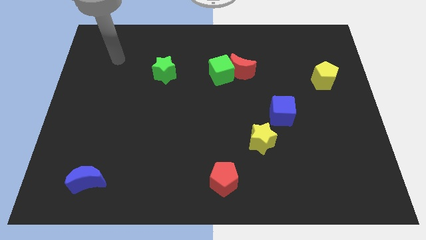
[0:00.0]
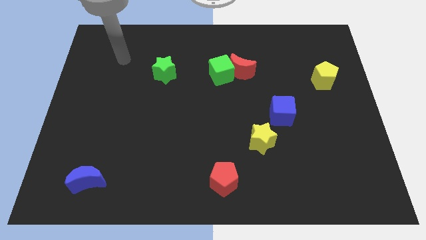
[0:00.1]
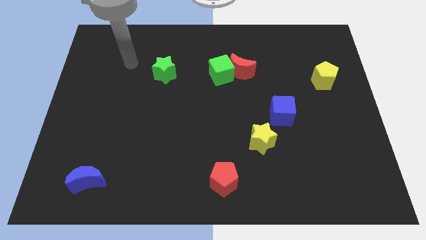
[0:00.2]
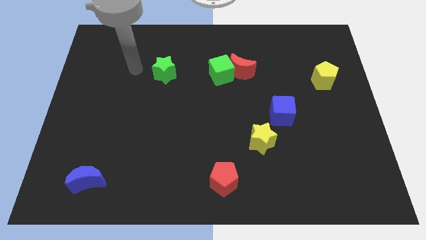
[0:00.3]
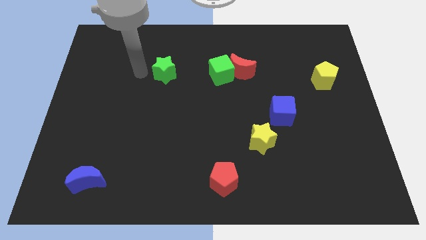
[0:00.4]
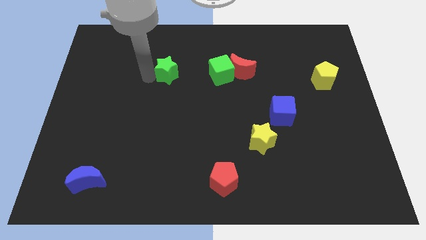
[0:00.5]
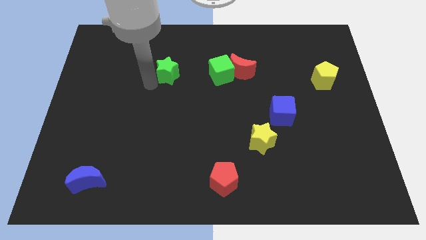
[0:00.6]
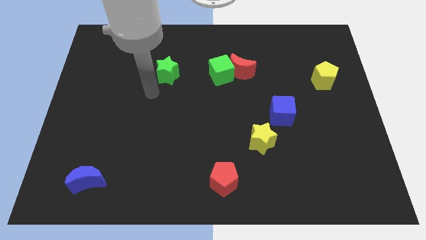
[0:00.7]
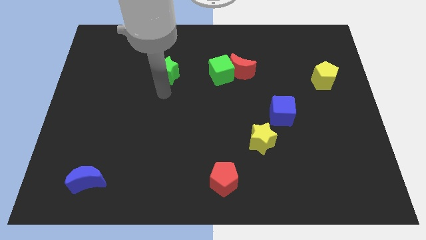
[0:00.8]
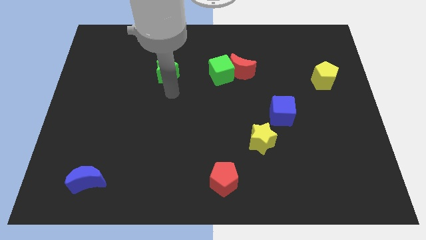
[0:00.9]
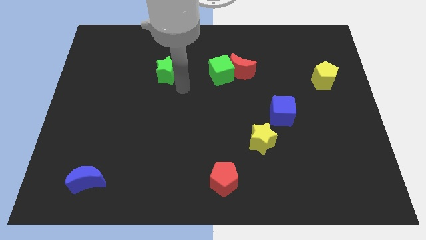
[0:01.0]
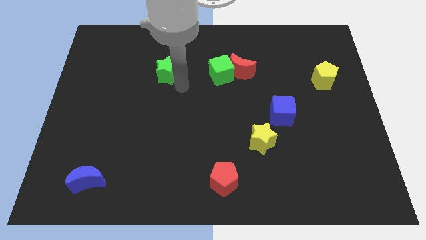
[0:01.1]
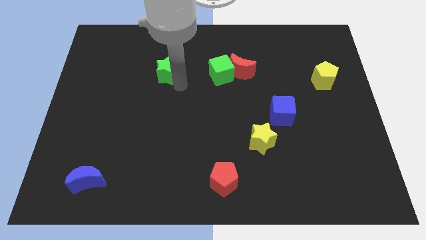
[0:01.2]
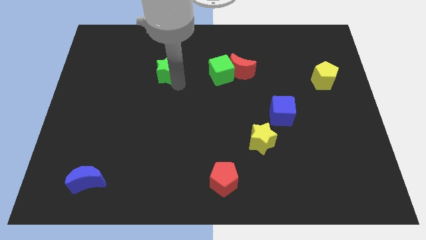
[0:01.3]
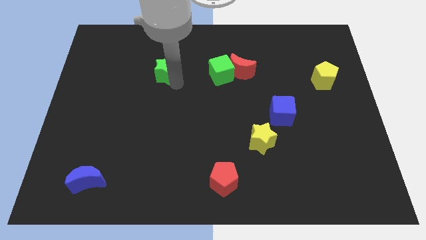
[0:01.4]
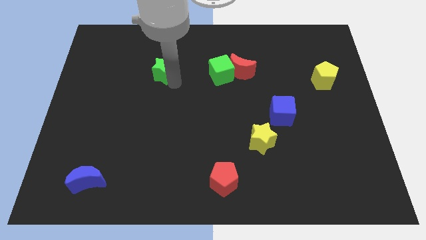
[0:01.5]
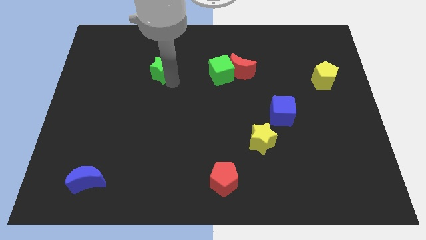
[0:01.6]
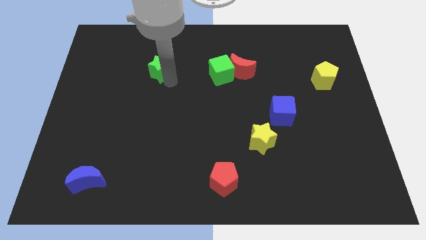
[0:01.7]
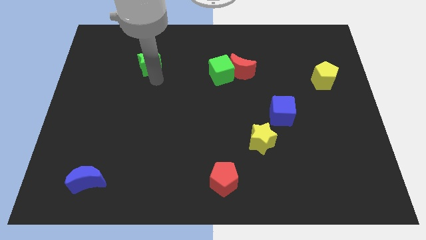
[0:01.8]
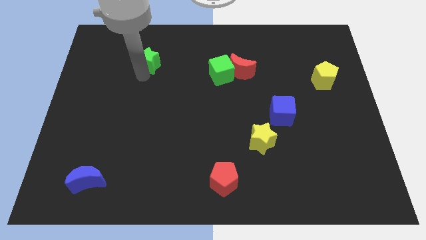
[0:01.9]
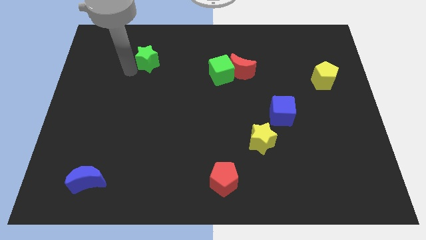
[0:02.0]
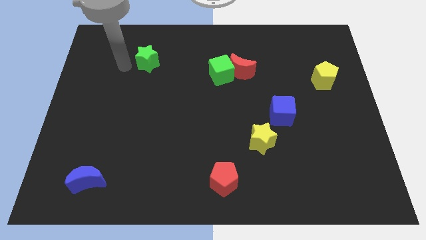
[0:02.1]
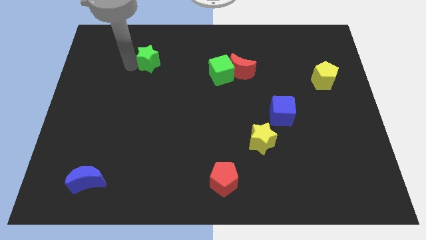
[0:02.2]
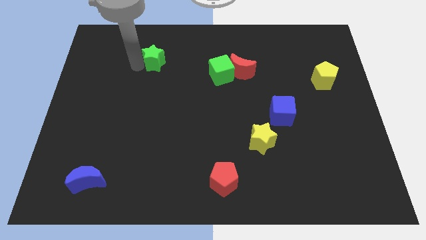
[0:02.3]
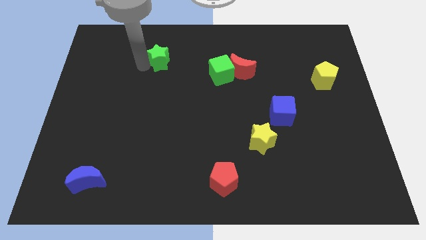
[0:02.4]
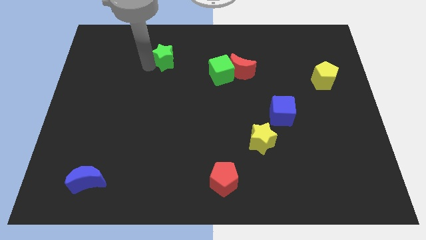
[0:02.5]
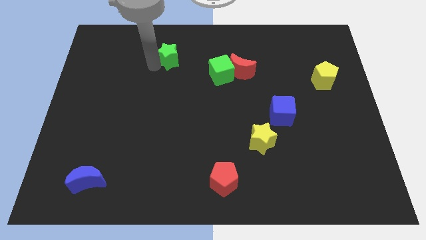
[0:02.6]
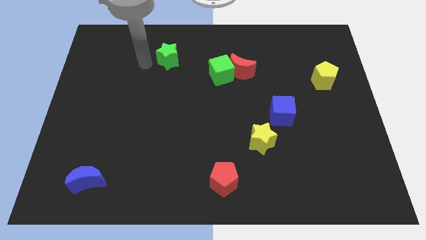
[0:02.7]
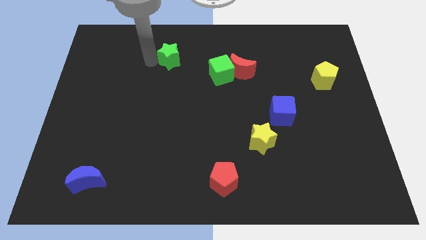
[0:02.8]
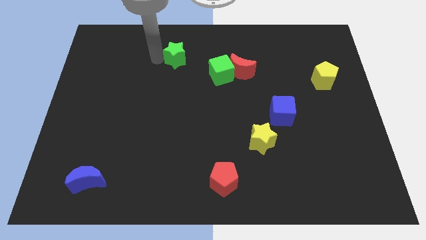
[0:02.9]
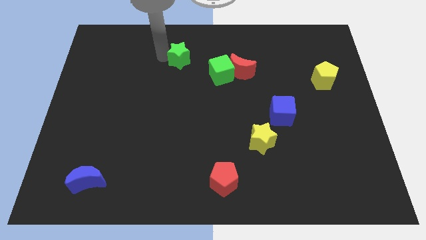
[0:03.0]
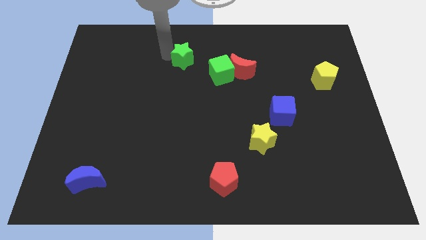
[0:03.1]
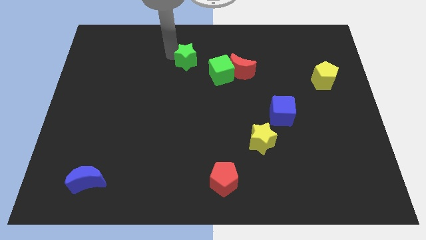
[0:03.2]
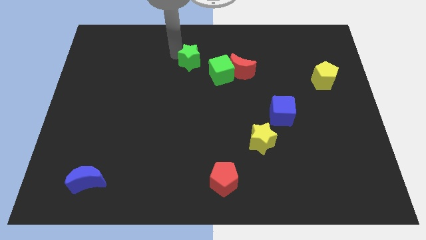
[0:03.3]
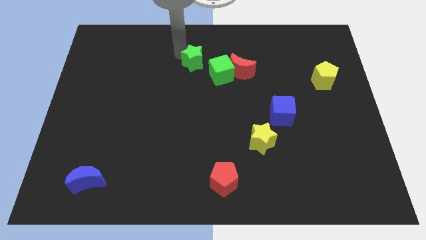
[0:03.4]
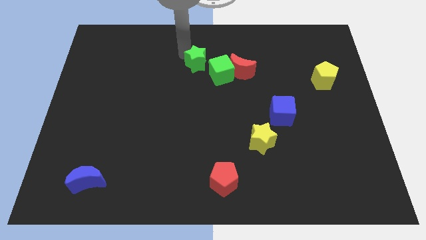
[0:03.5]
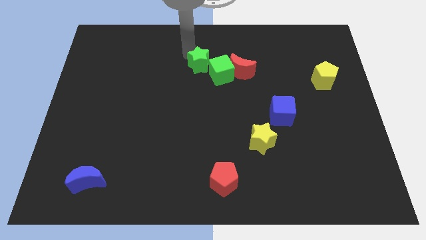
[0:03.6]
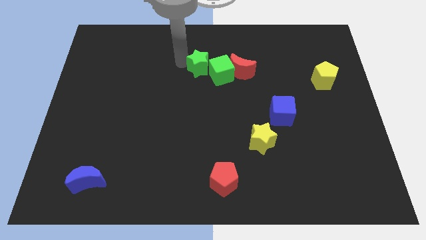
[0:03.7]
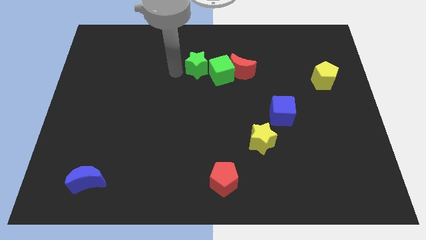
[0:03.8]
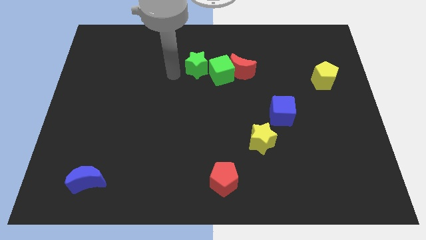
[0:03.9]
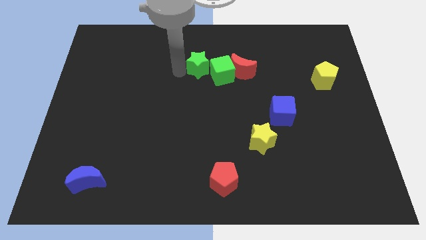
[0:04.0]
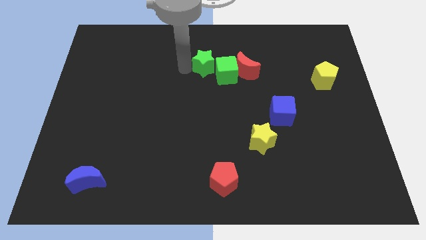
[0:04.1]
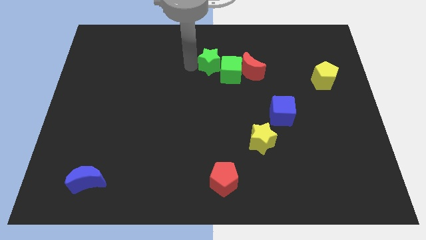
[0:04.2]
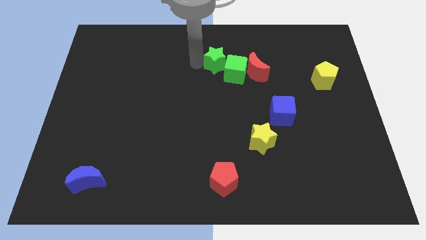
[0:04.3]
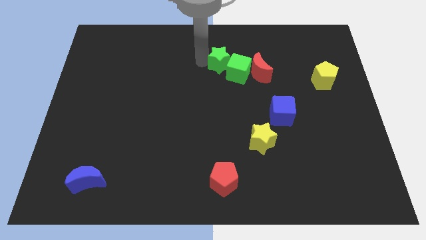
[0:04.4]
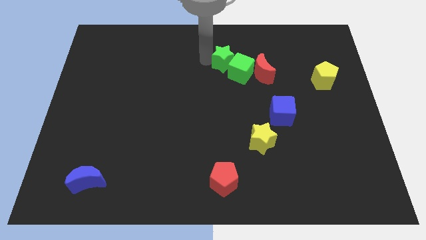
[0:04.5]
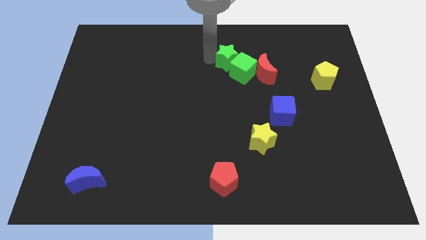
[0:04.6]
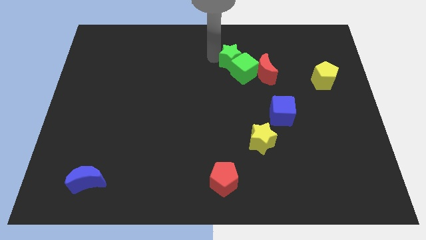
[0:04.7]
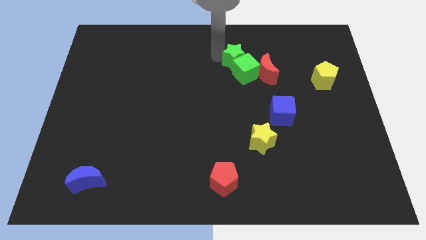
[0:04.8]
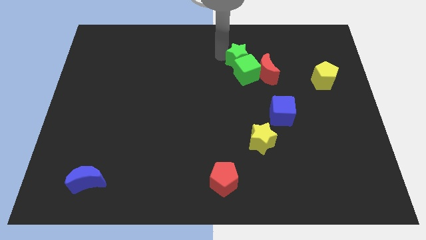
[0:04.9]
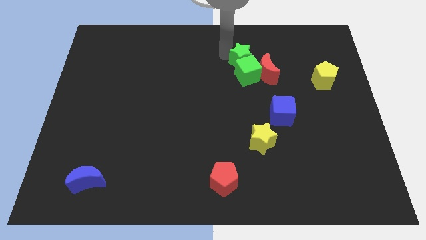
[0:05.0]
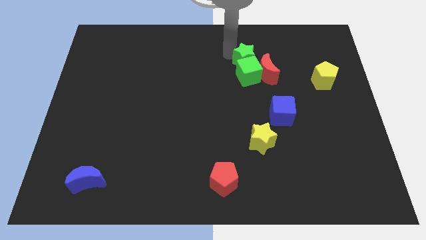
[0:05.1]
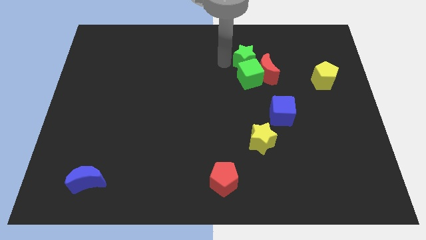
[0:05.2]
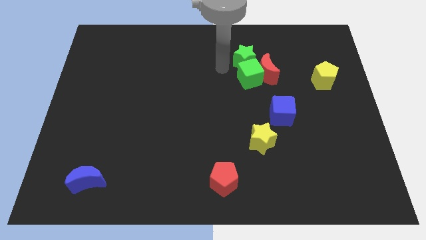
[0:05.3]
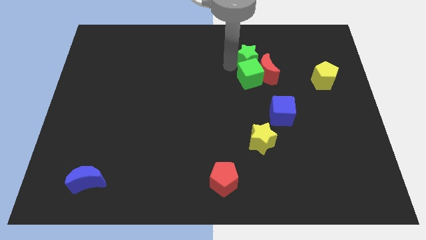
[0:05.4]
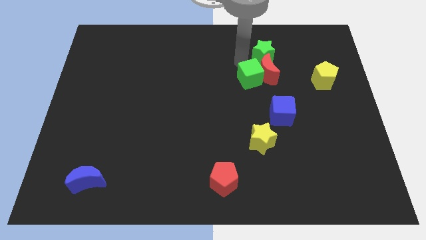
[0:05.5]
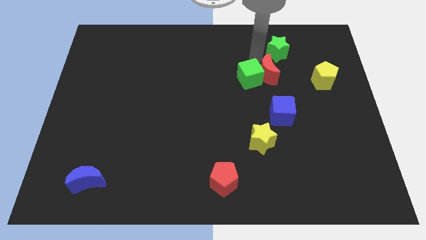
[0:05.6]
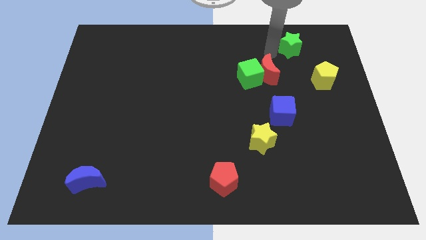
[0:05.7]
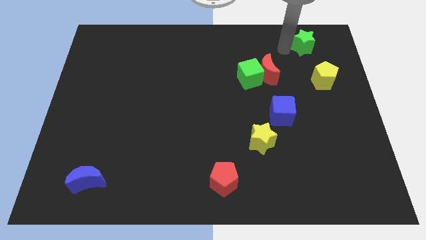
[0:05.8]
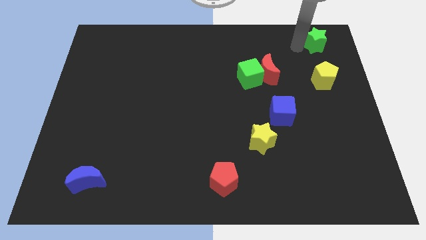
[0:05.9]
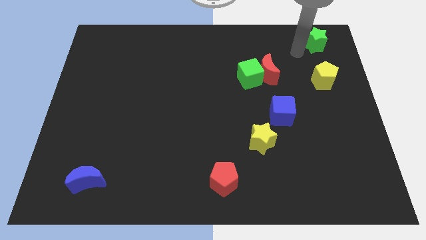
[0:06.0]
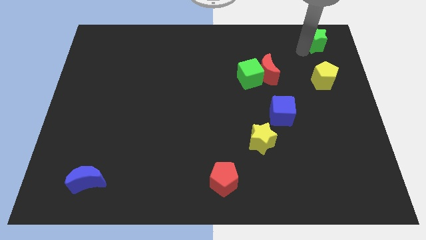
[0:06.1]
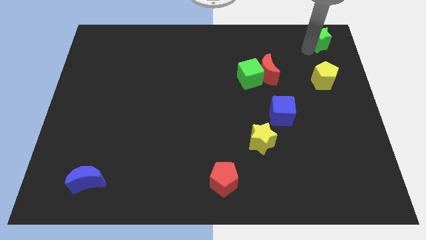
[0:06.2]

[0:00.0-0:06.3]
move the green star to the top right corner

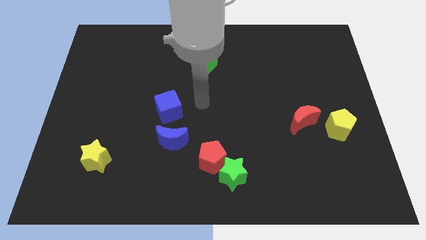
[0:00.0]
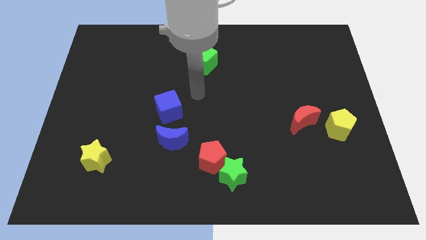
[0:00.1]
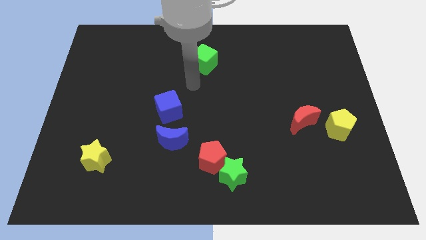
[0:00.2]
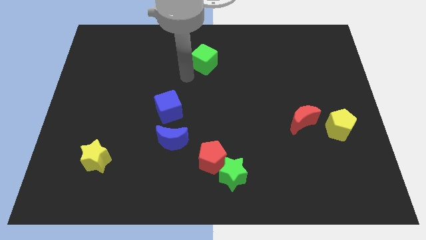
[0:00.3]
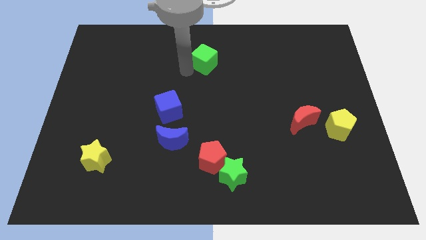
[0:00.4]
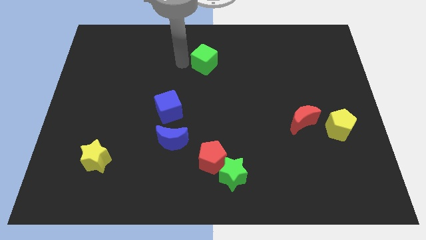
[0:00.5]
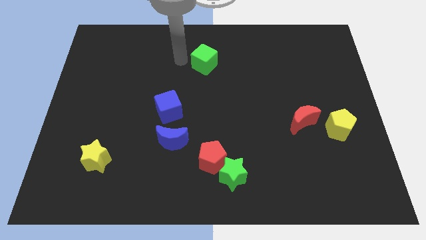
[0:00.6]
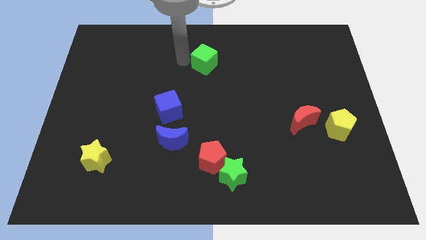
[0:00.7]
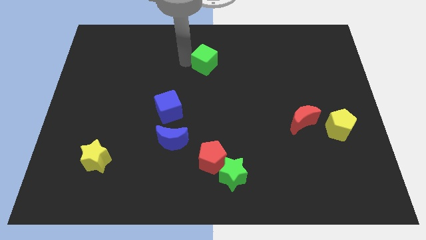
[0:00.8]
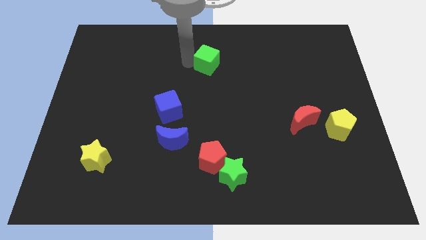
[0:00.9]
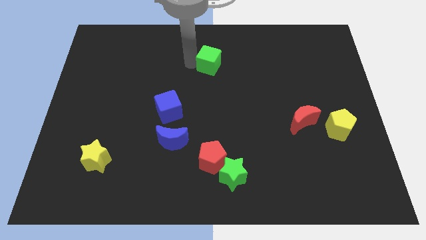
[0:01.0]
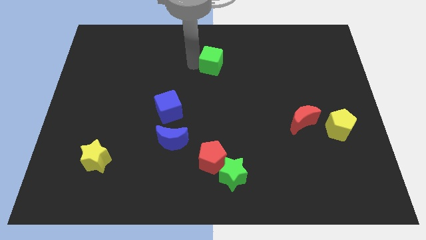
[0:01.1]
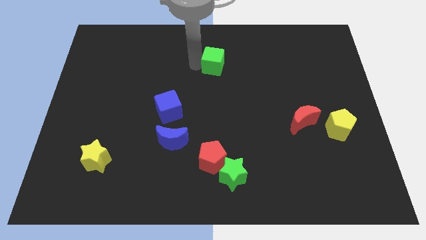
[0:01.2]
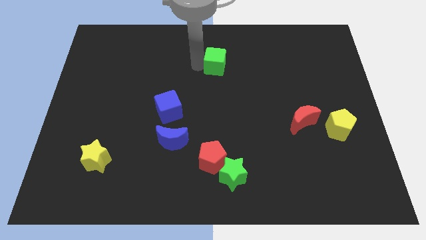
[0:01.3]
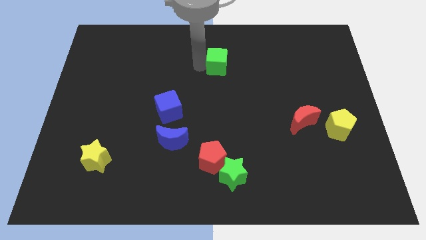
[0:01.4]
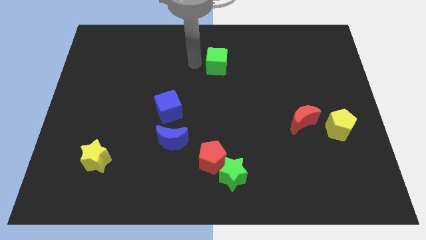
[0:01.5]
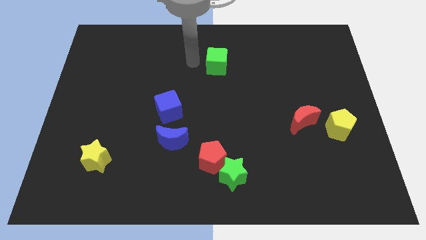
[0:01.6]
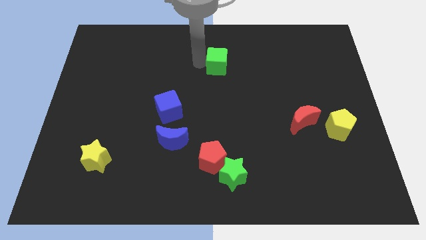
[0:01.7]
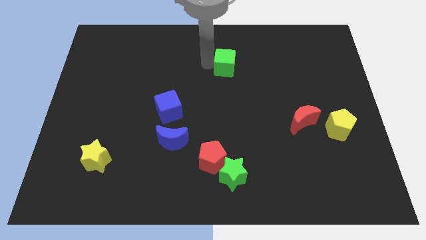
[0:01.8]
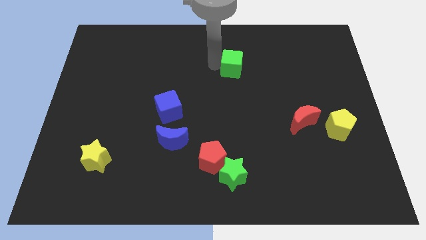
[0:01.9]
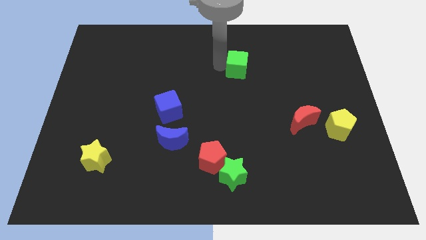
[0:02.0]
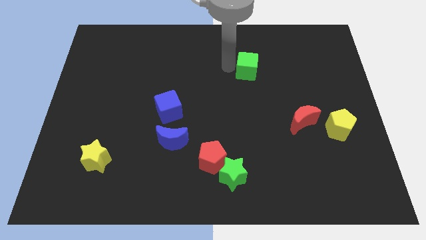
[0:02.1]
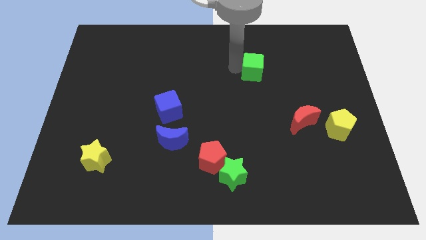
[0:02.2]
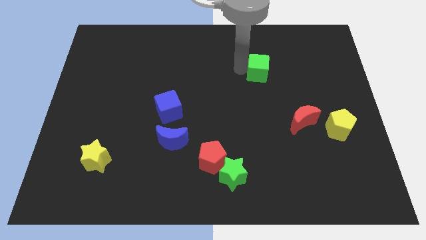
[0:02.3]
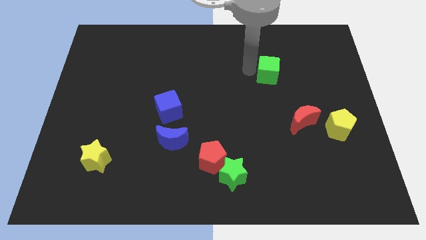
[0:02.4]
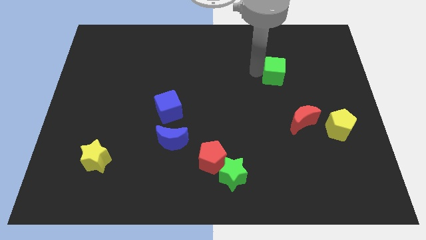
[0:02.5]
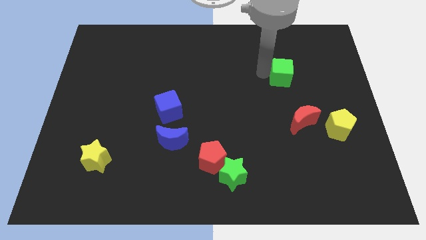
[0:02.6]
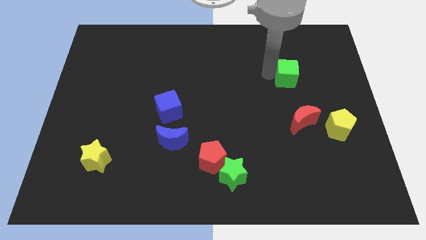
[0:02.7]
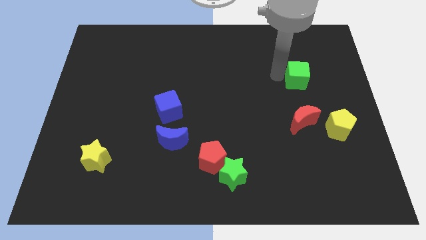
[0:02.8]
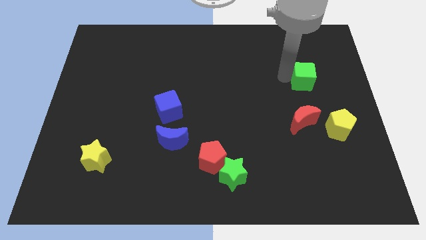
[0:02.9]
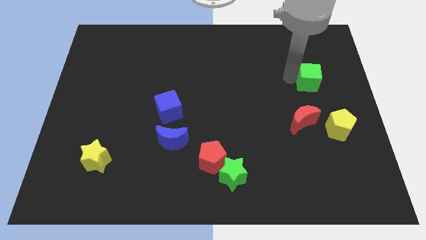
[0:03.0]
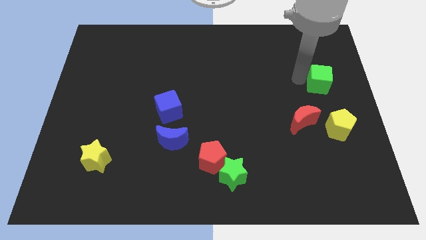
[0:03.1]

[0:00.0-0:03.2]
put the green cube to the right side
